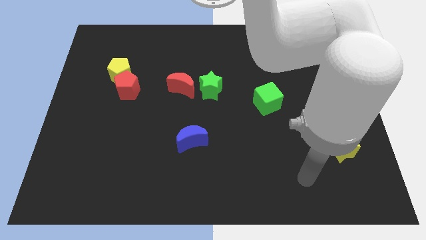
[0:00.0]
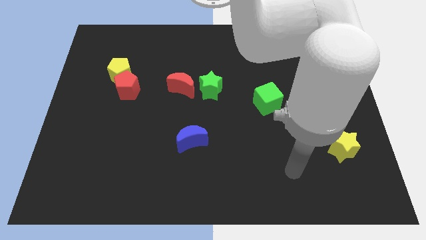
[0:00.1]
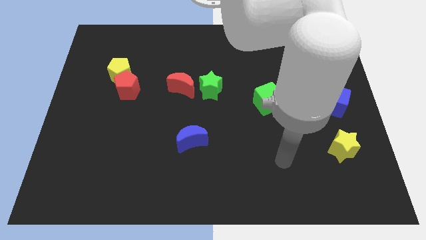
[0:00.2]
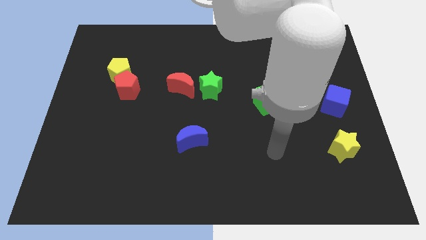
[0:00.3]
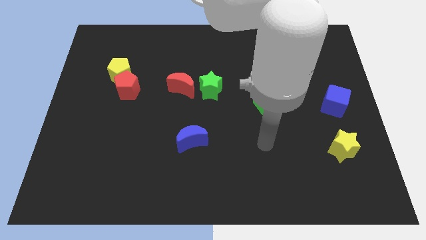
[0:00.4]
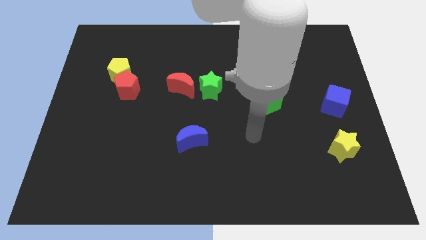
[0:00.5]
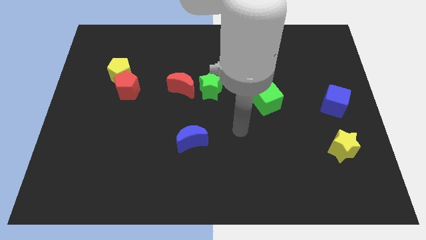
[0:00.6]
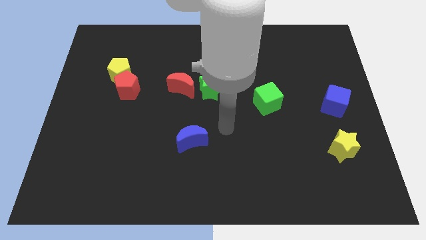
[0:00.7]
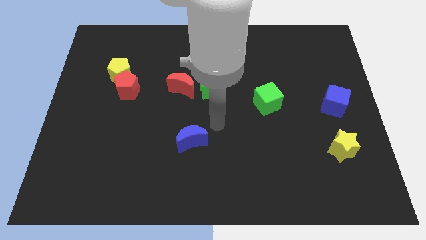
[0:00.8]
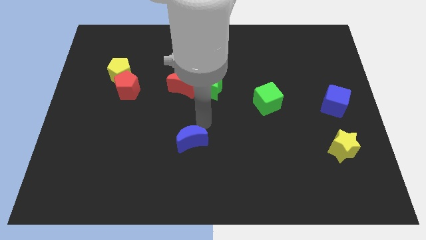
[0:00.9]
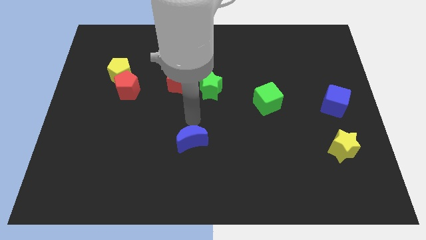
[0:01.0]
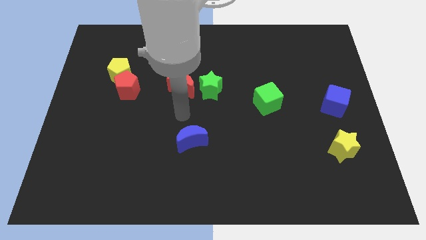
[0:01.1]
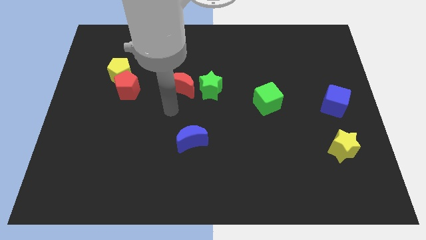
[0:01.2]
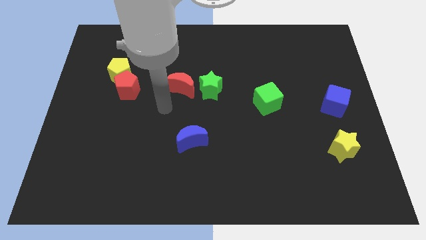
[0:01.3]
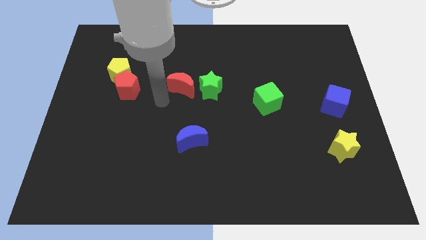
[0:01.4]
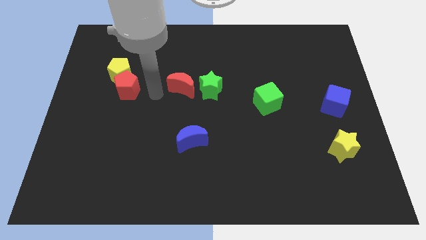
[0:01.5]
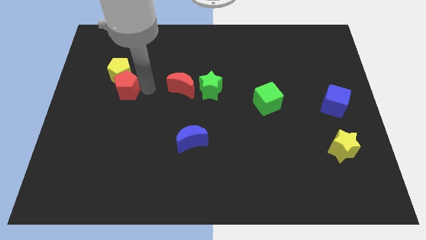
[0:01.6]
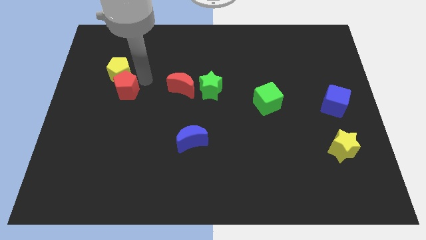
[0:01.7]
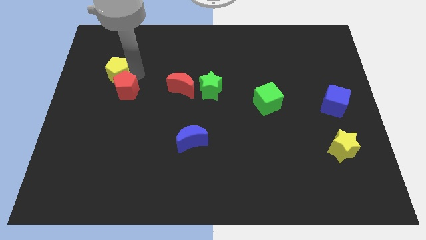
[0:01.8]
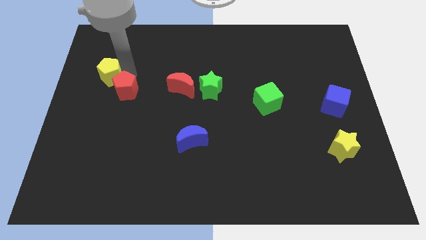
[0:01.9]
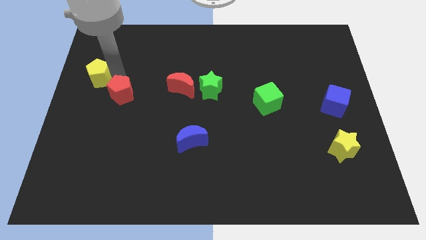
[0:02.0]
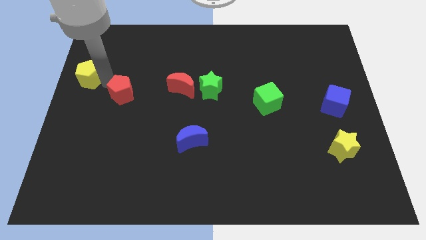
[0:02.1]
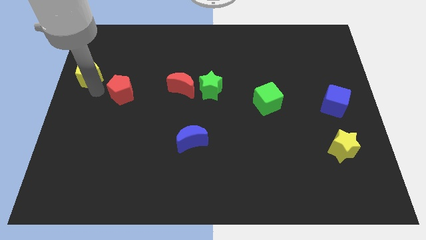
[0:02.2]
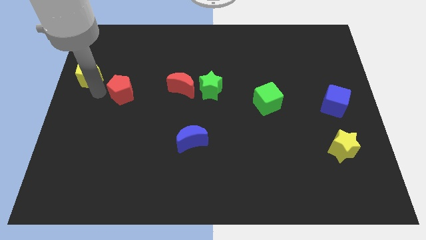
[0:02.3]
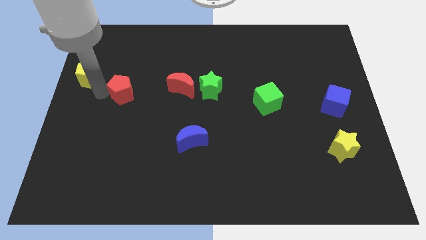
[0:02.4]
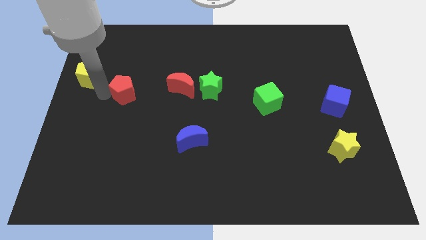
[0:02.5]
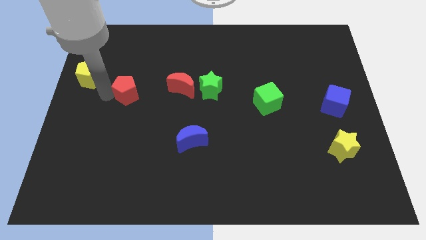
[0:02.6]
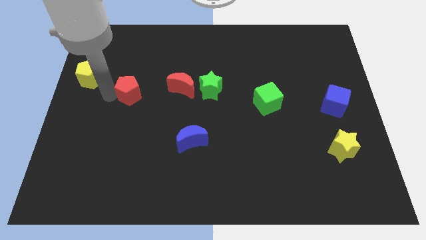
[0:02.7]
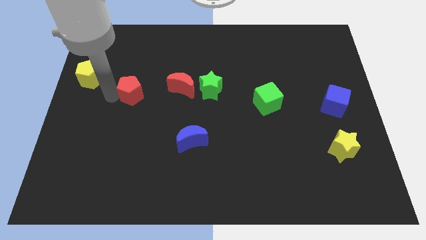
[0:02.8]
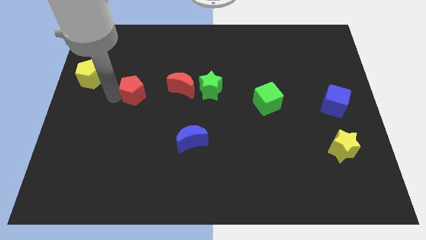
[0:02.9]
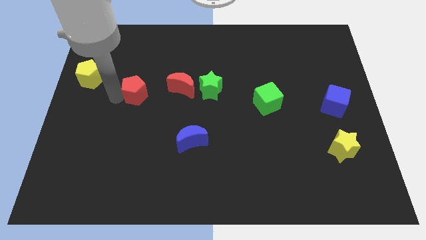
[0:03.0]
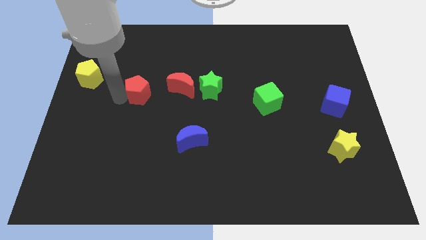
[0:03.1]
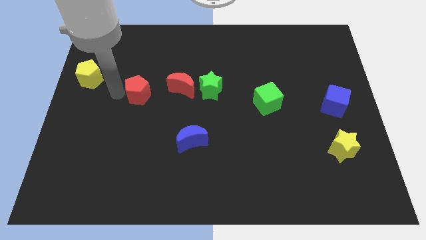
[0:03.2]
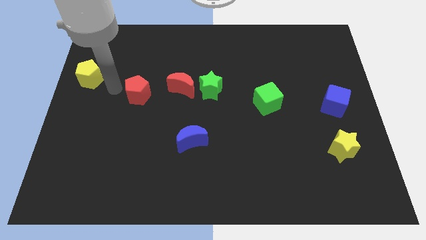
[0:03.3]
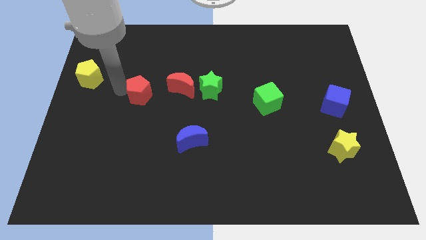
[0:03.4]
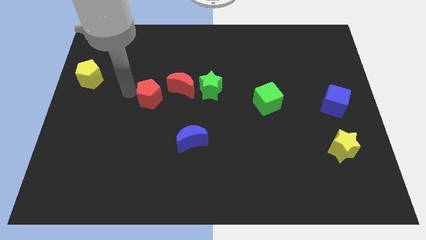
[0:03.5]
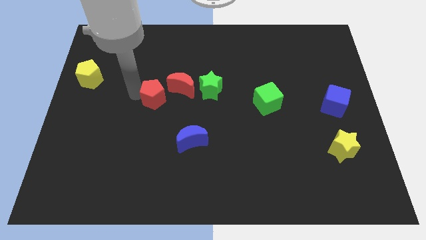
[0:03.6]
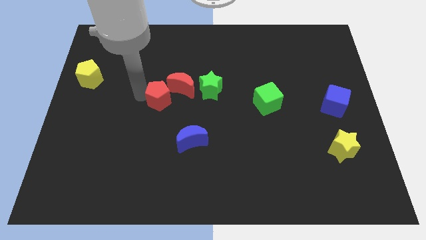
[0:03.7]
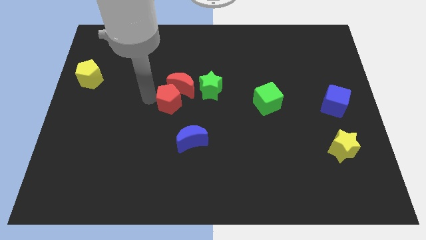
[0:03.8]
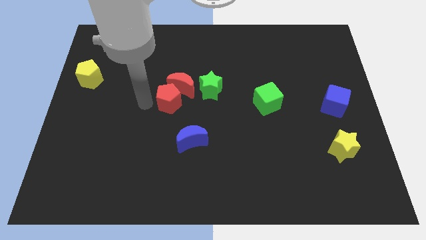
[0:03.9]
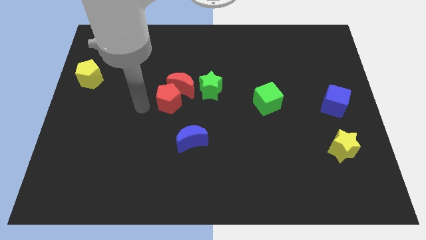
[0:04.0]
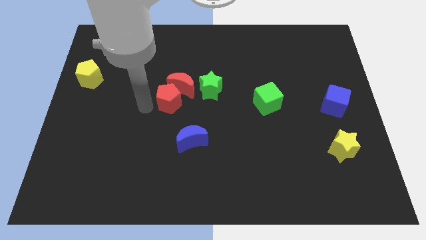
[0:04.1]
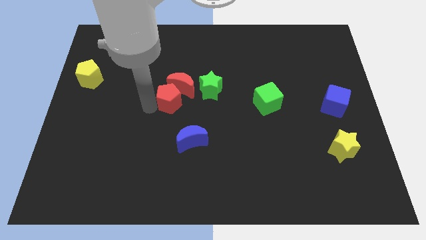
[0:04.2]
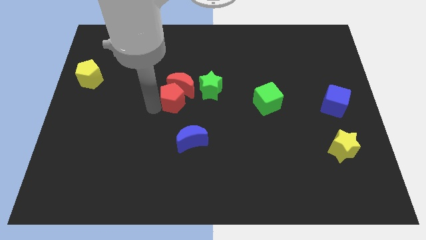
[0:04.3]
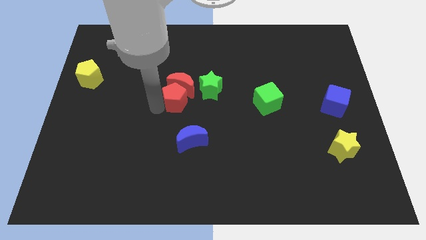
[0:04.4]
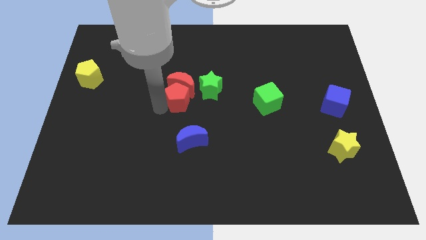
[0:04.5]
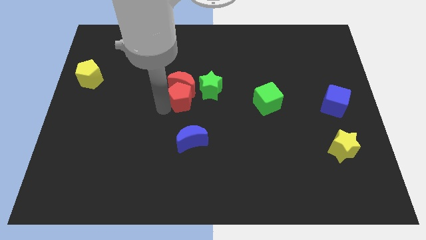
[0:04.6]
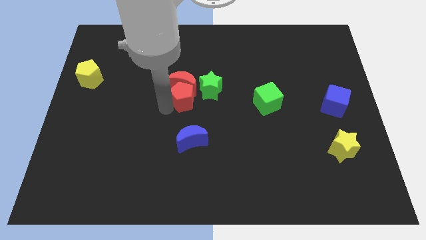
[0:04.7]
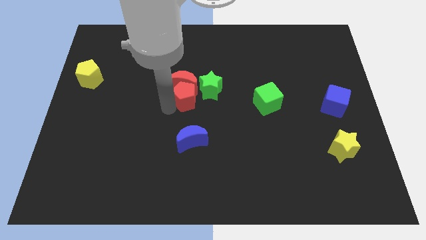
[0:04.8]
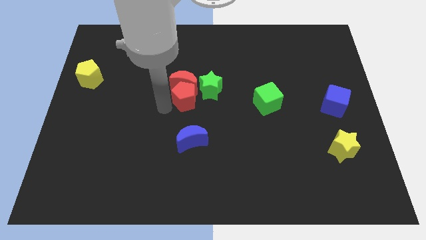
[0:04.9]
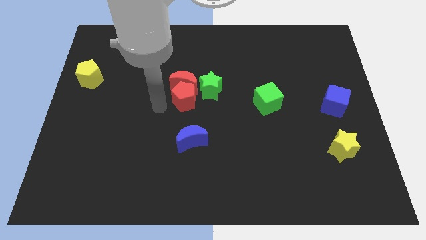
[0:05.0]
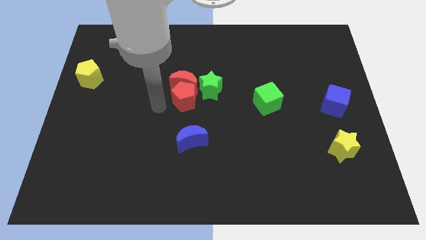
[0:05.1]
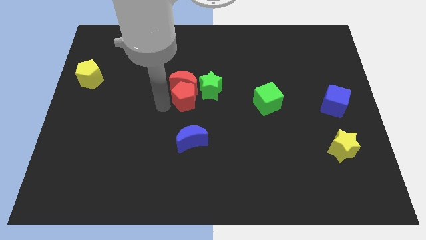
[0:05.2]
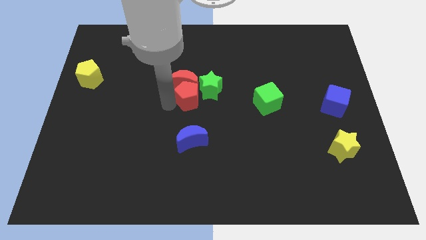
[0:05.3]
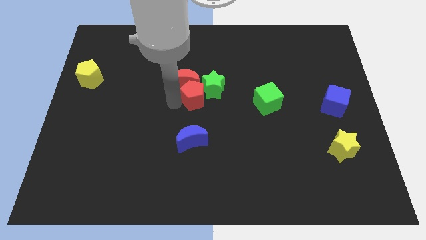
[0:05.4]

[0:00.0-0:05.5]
slide the red pentagon towards the green star

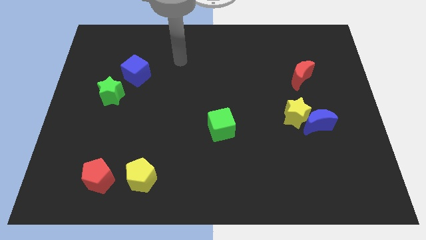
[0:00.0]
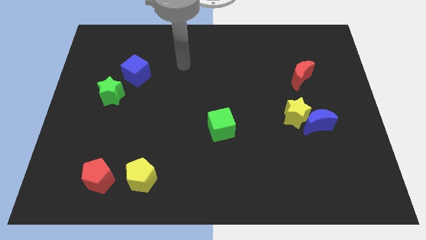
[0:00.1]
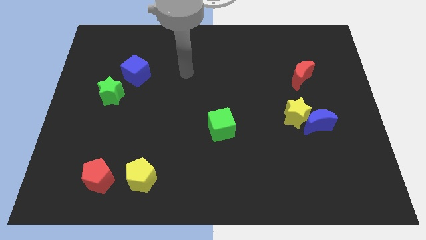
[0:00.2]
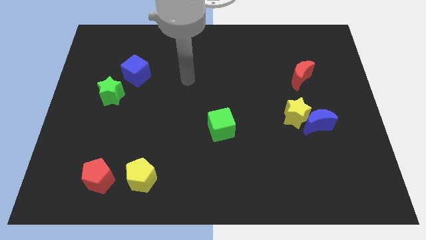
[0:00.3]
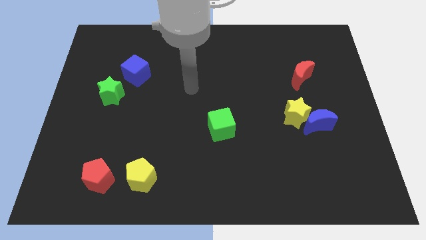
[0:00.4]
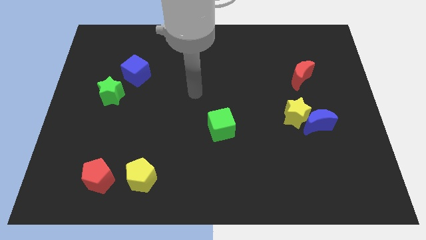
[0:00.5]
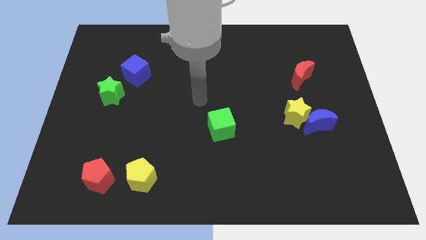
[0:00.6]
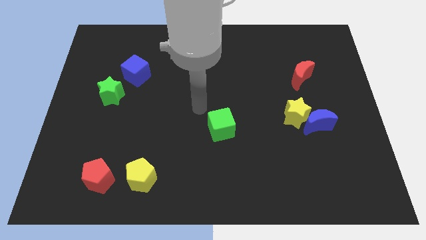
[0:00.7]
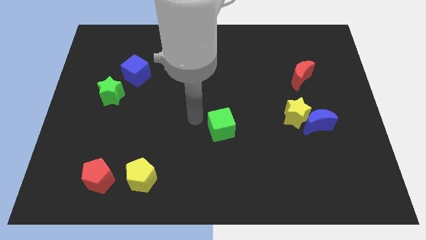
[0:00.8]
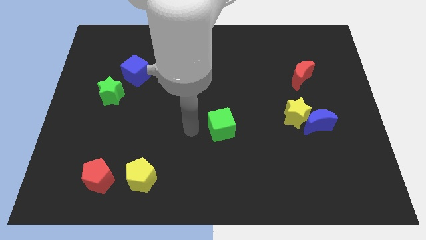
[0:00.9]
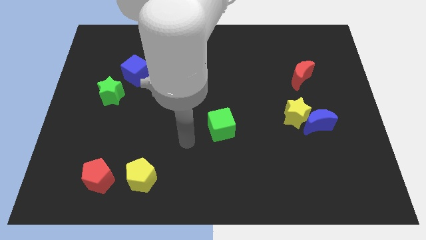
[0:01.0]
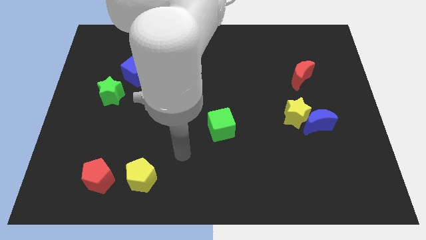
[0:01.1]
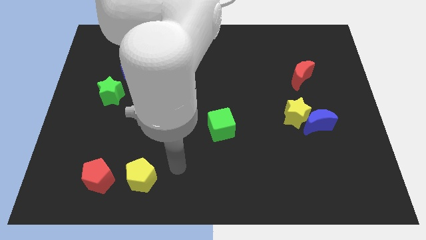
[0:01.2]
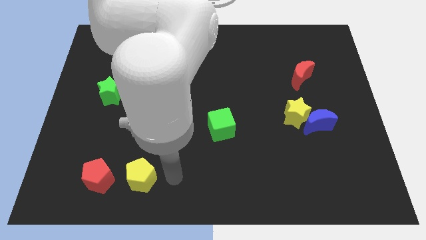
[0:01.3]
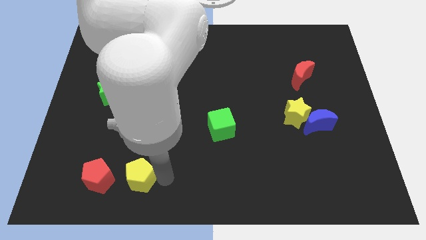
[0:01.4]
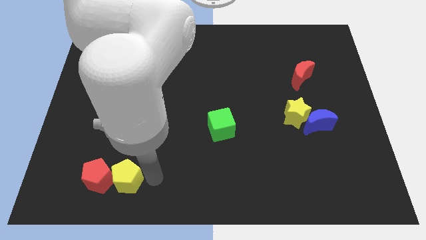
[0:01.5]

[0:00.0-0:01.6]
slide the yellow pentagon to the red pentagon
